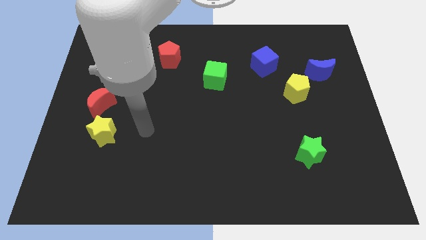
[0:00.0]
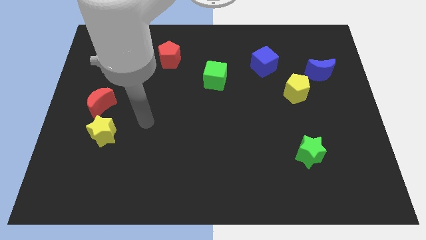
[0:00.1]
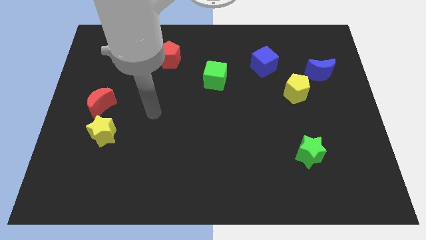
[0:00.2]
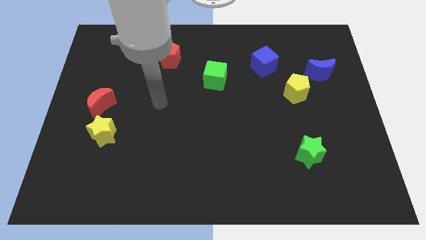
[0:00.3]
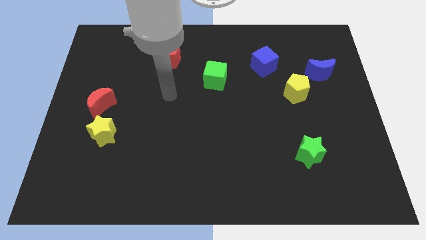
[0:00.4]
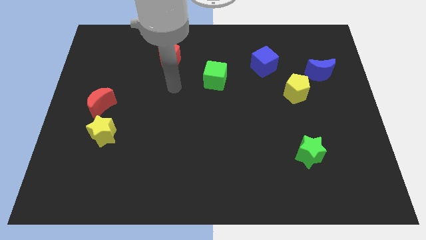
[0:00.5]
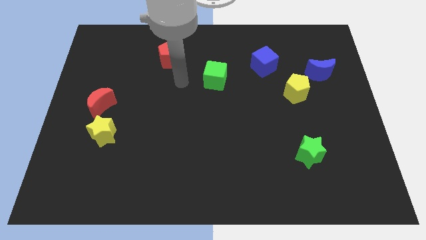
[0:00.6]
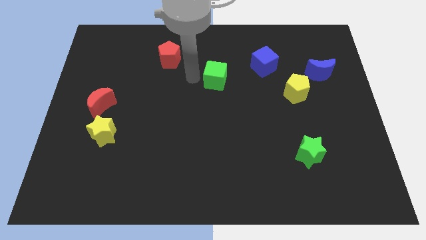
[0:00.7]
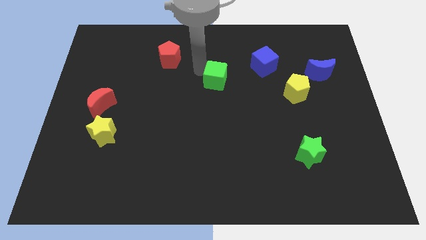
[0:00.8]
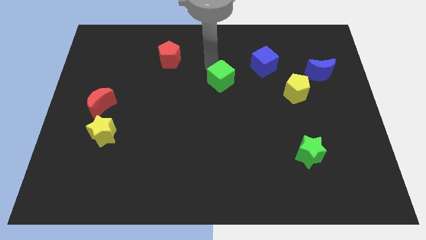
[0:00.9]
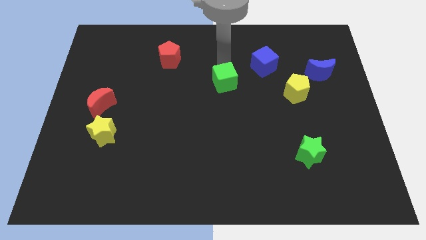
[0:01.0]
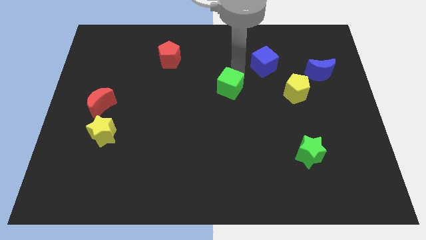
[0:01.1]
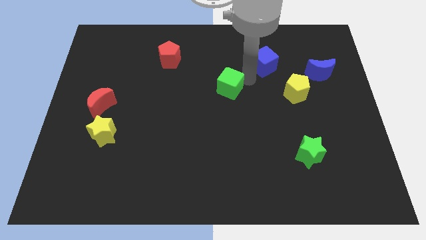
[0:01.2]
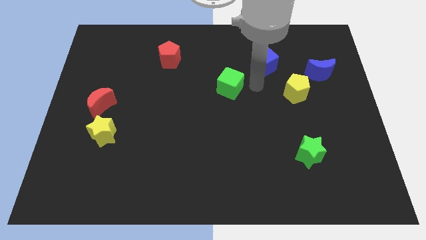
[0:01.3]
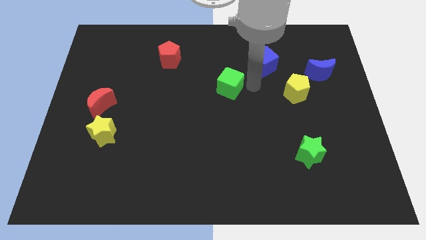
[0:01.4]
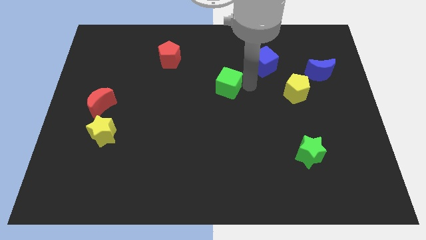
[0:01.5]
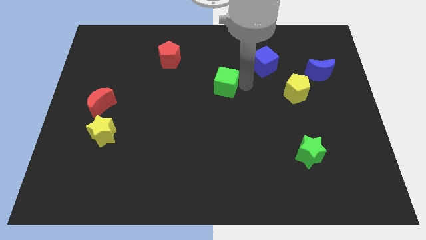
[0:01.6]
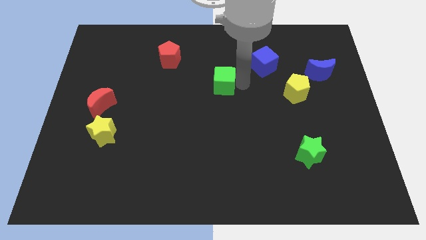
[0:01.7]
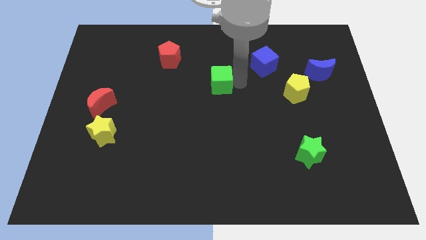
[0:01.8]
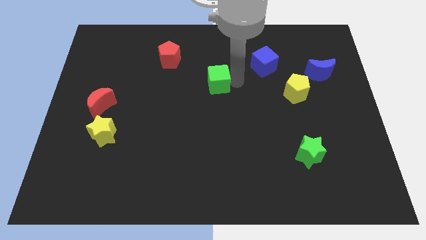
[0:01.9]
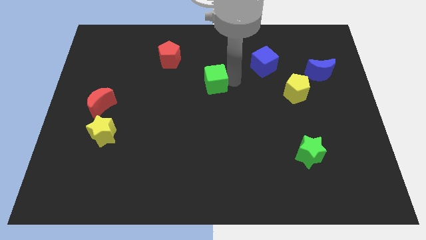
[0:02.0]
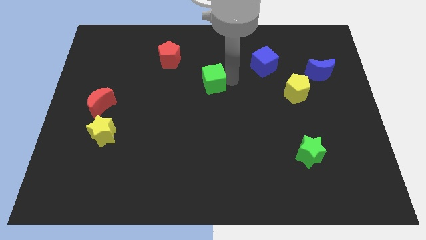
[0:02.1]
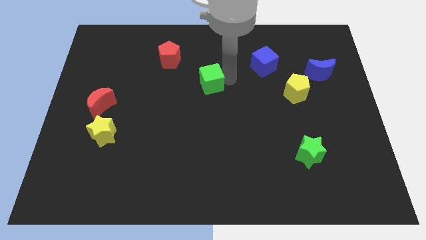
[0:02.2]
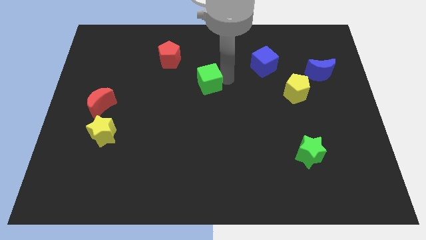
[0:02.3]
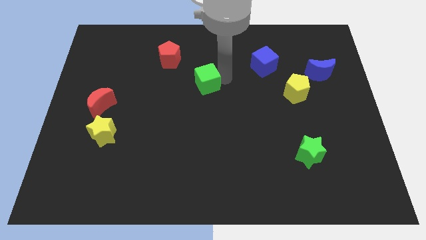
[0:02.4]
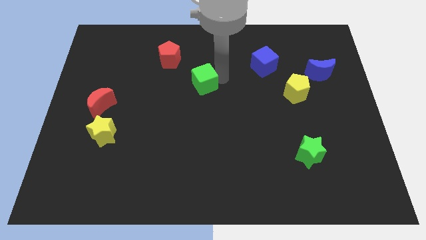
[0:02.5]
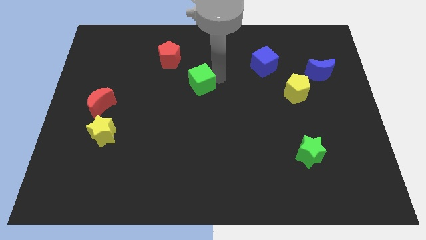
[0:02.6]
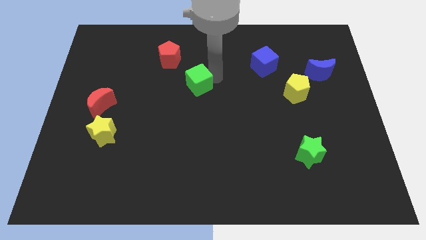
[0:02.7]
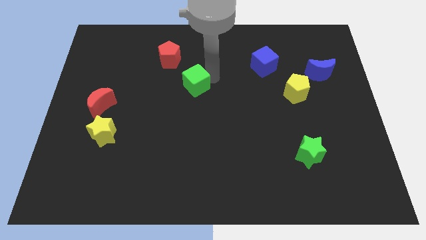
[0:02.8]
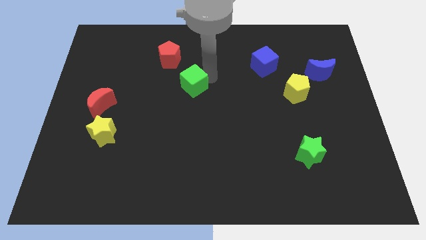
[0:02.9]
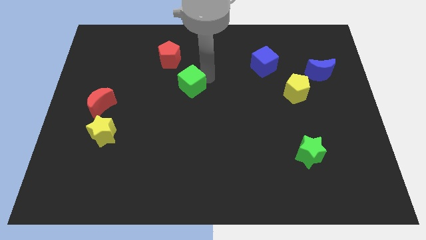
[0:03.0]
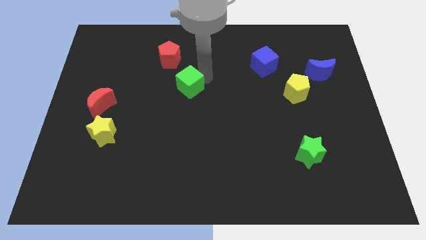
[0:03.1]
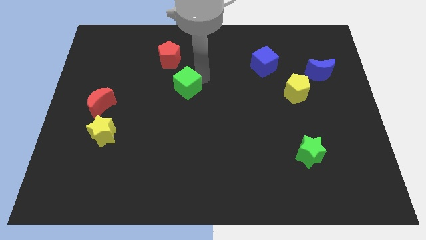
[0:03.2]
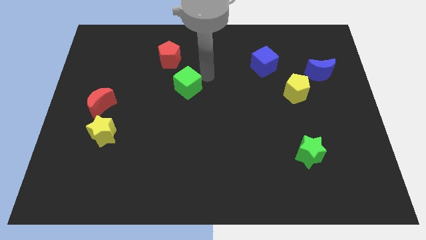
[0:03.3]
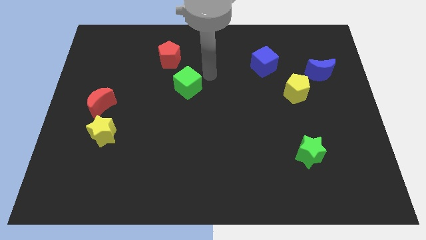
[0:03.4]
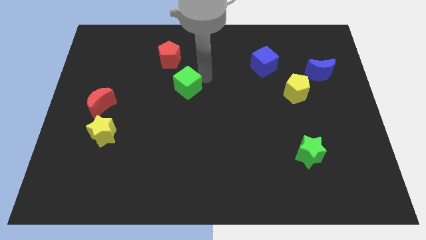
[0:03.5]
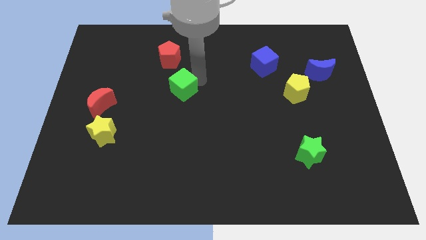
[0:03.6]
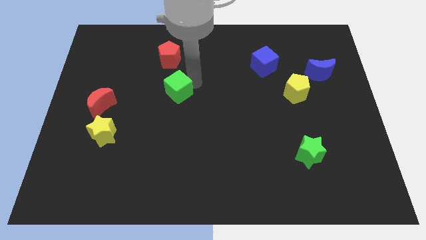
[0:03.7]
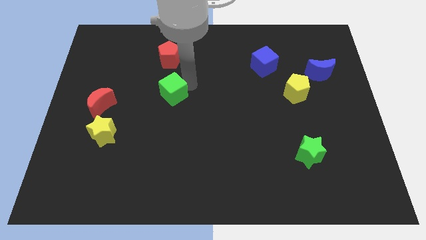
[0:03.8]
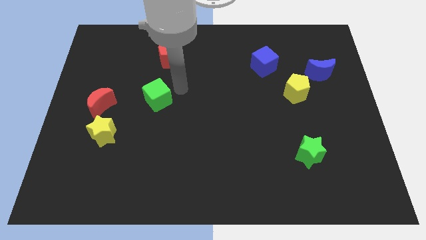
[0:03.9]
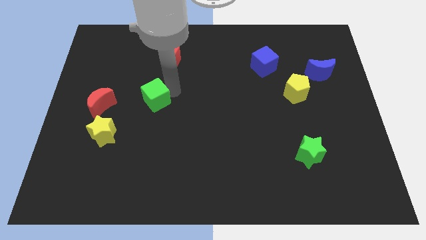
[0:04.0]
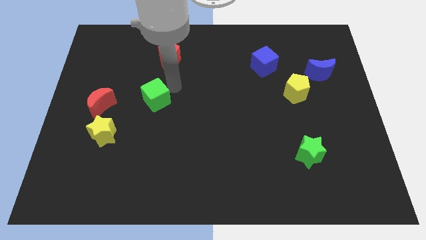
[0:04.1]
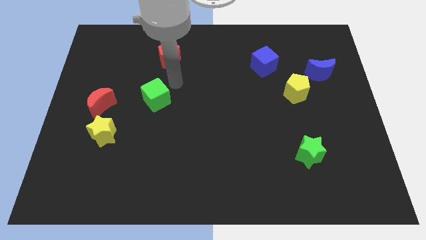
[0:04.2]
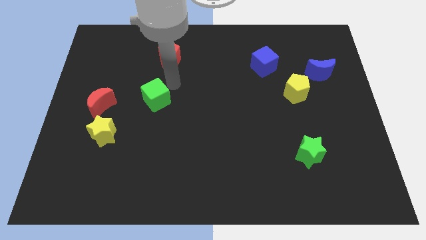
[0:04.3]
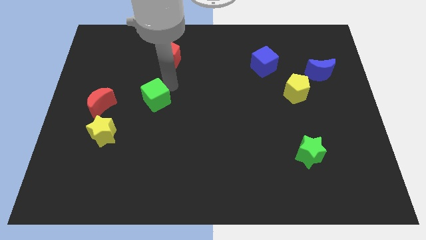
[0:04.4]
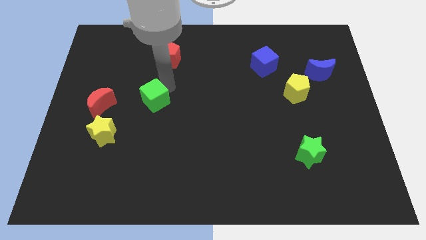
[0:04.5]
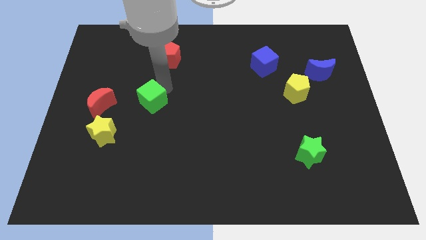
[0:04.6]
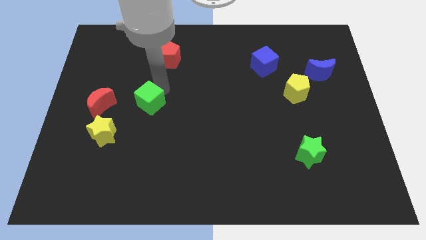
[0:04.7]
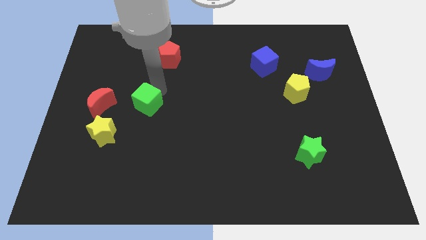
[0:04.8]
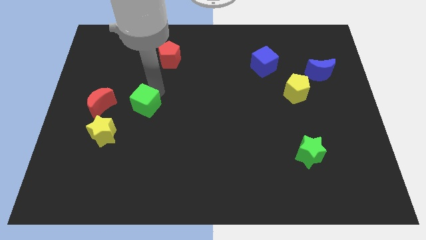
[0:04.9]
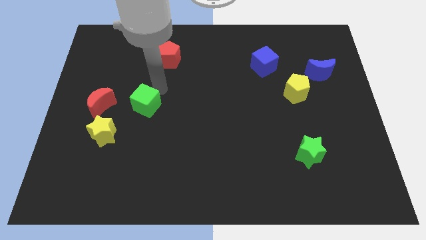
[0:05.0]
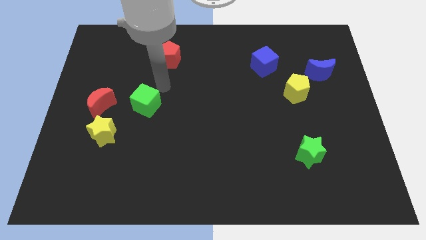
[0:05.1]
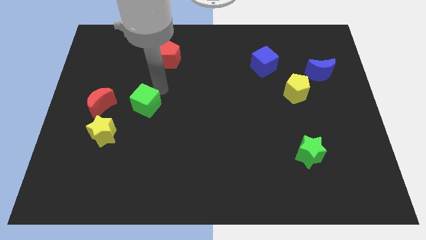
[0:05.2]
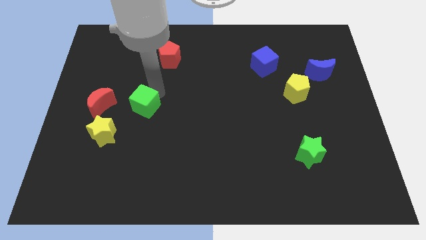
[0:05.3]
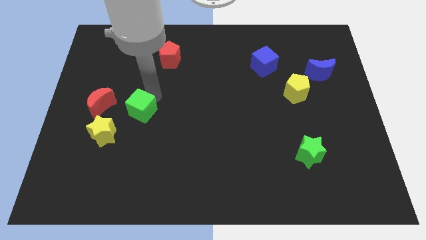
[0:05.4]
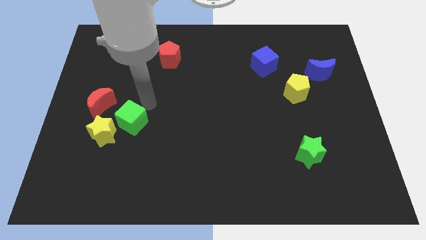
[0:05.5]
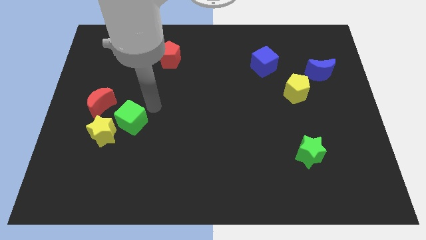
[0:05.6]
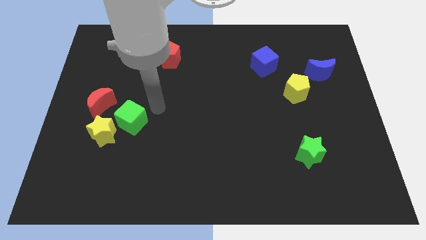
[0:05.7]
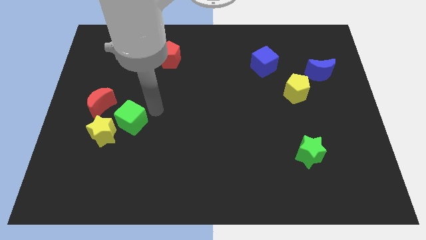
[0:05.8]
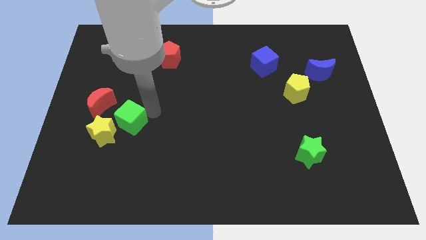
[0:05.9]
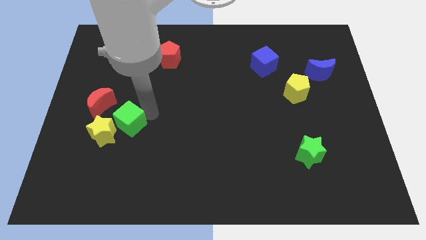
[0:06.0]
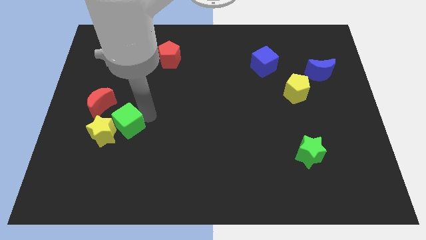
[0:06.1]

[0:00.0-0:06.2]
move the green cube towards the yellow star

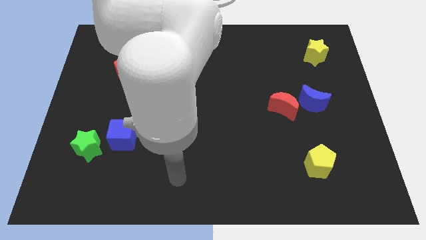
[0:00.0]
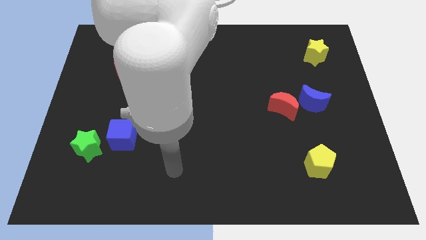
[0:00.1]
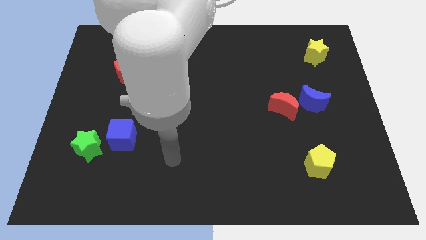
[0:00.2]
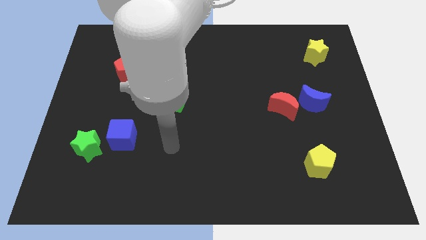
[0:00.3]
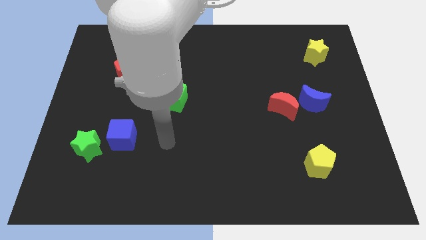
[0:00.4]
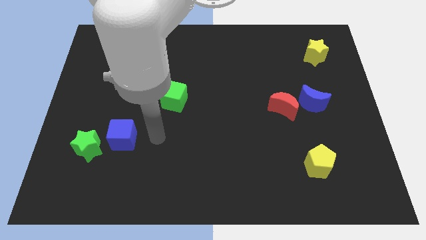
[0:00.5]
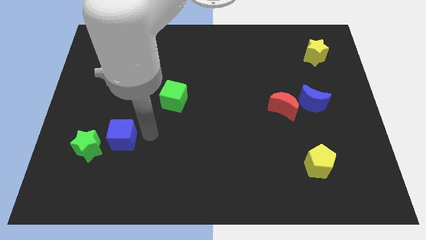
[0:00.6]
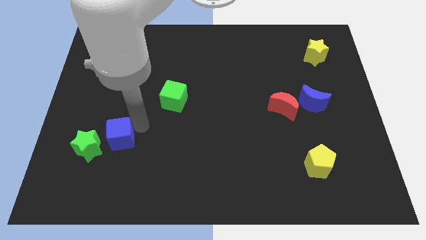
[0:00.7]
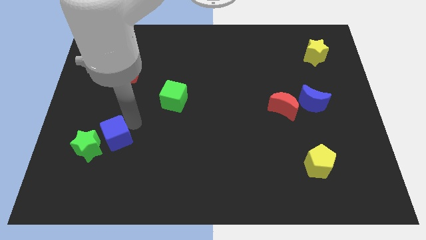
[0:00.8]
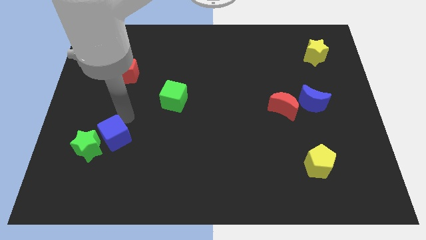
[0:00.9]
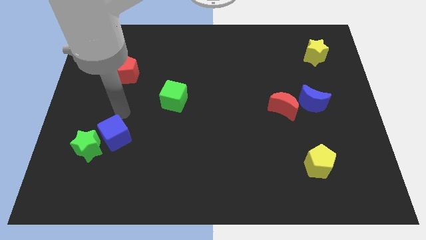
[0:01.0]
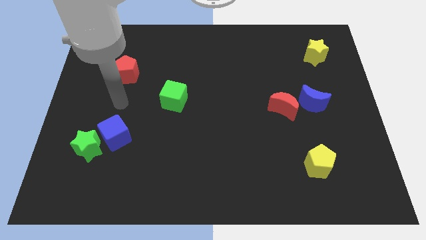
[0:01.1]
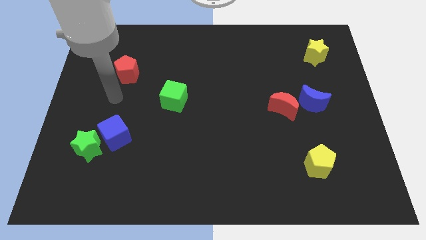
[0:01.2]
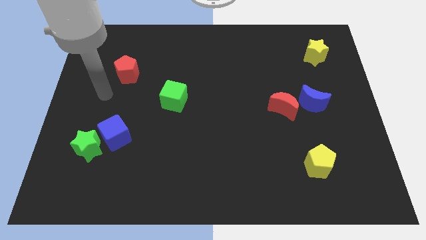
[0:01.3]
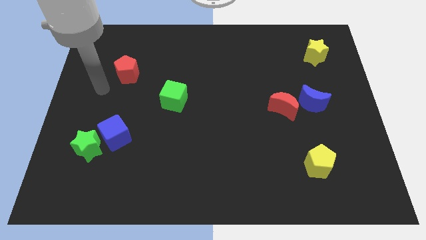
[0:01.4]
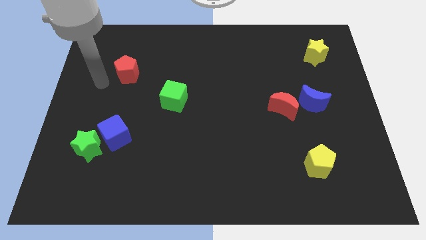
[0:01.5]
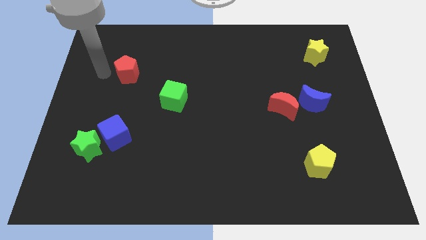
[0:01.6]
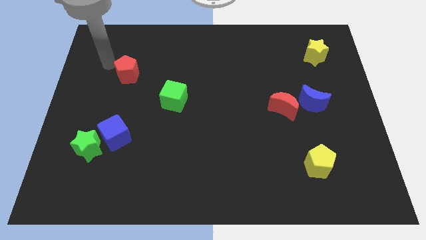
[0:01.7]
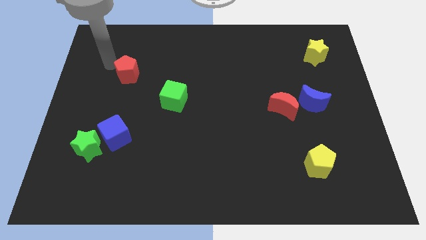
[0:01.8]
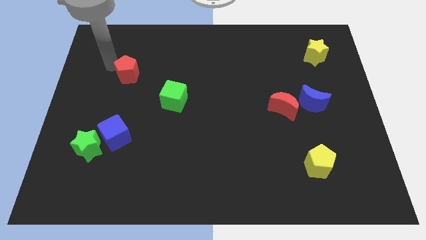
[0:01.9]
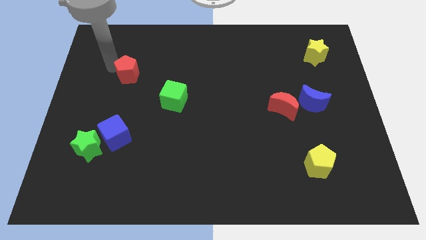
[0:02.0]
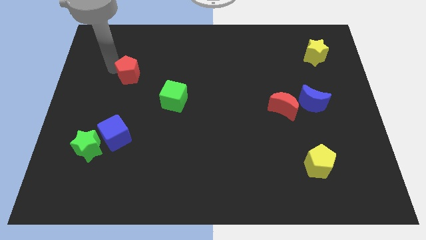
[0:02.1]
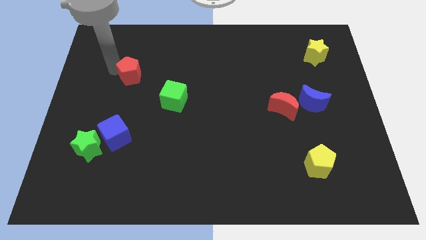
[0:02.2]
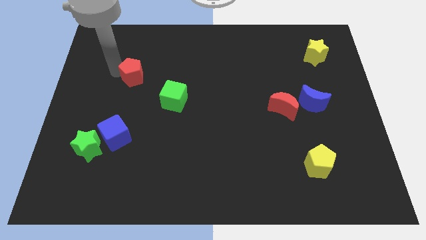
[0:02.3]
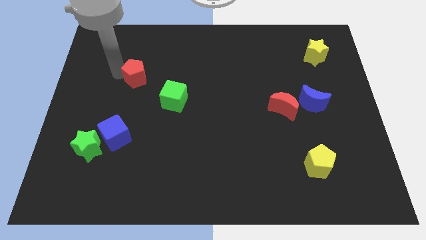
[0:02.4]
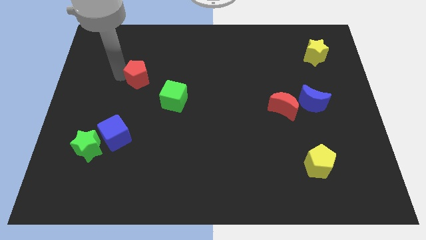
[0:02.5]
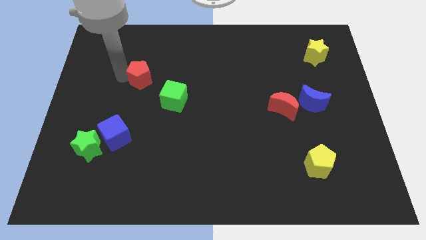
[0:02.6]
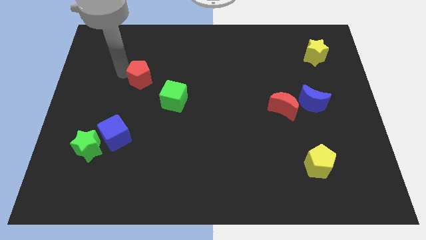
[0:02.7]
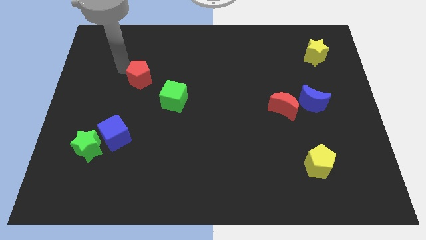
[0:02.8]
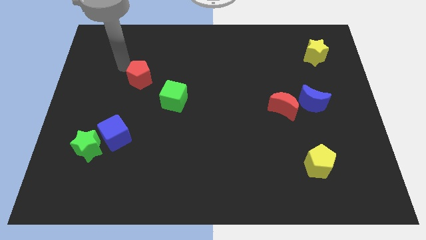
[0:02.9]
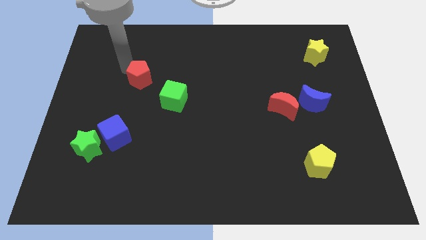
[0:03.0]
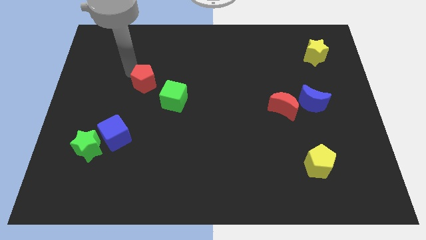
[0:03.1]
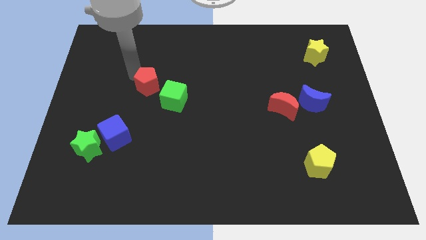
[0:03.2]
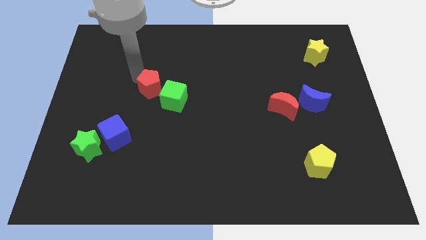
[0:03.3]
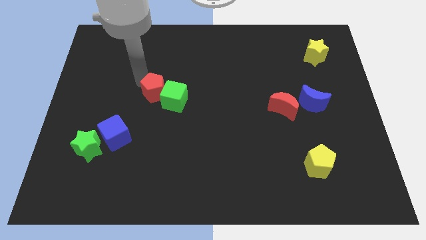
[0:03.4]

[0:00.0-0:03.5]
put the red pentagon close to the green cube
